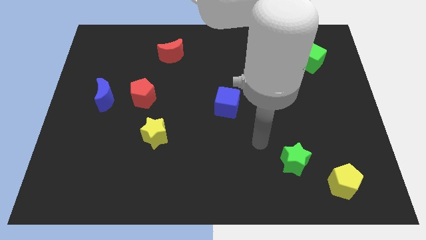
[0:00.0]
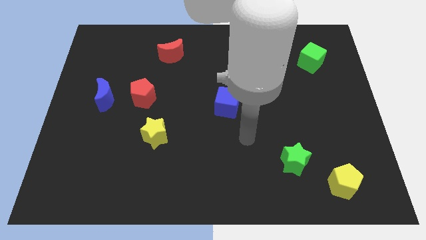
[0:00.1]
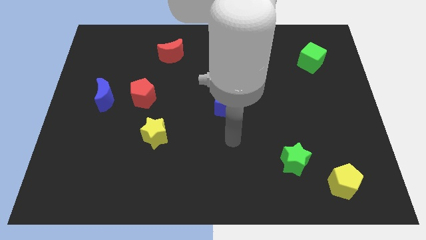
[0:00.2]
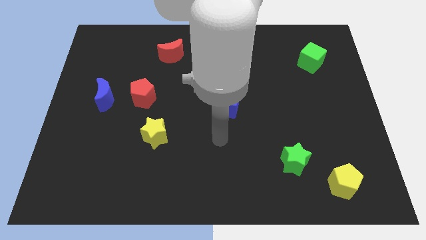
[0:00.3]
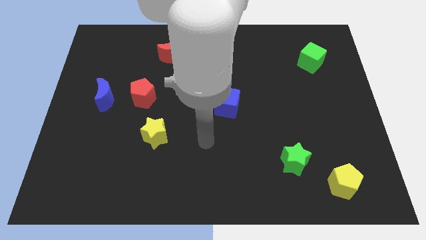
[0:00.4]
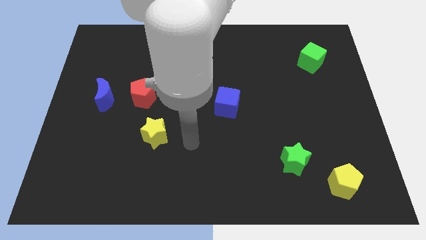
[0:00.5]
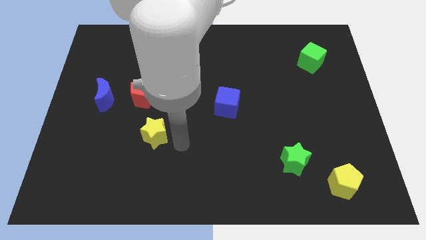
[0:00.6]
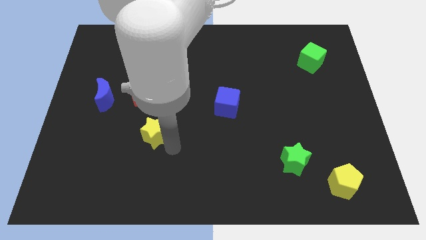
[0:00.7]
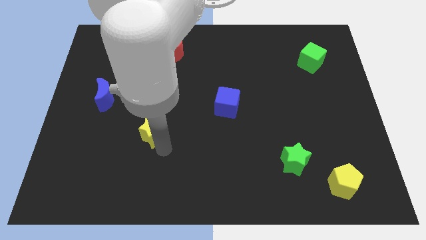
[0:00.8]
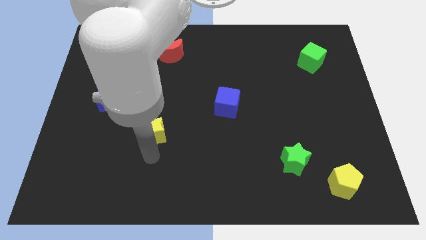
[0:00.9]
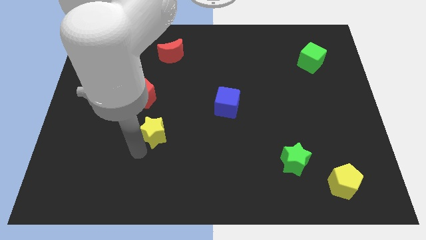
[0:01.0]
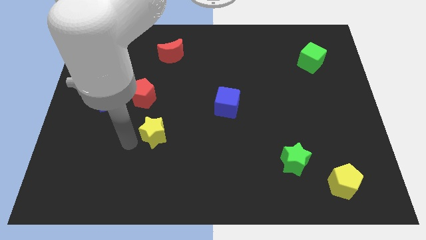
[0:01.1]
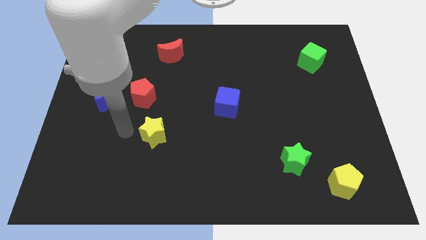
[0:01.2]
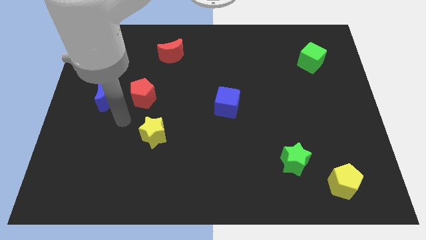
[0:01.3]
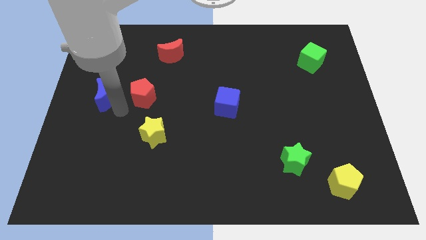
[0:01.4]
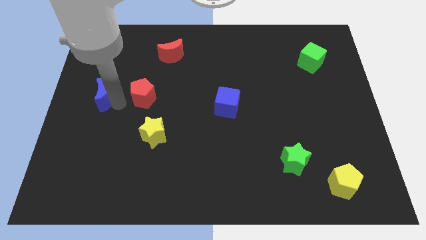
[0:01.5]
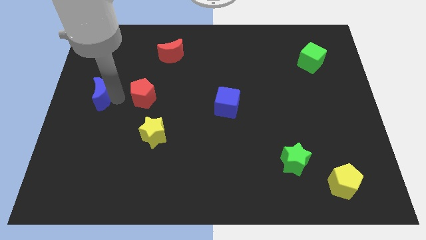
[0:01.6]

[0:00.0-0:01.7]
move the red pentagon away from the blue moon

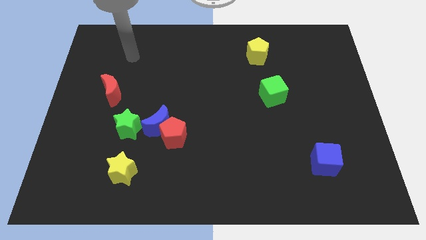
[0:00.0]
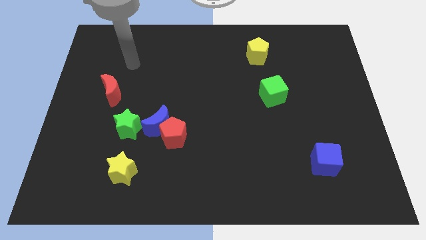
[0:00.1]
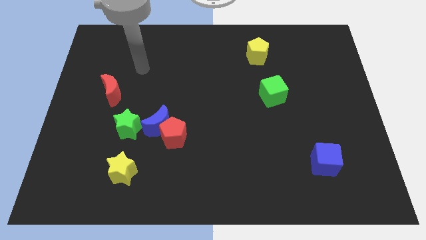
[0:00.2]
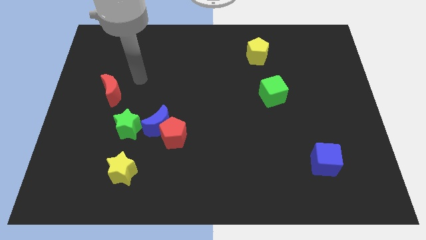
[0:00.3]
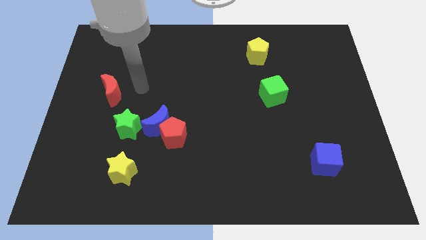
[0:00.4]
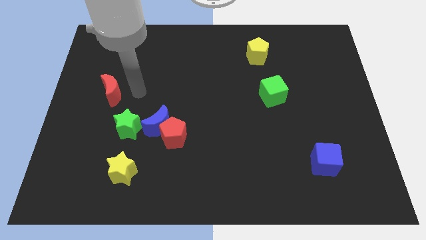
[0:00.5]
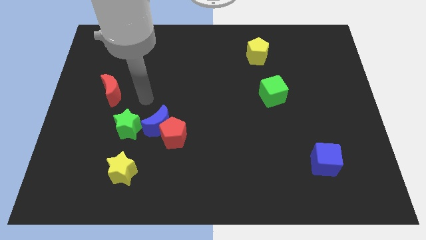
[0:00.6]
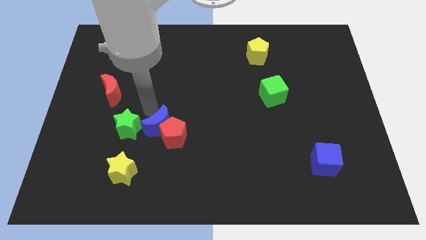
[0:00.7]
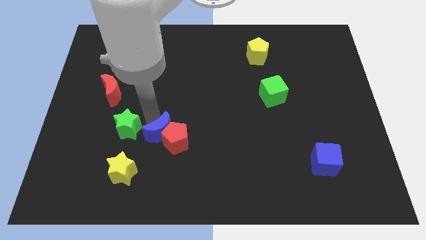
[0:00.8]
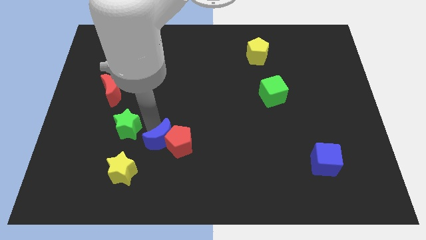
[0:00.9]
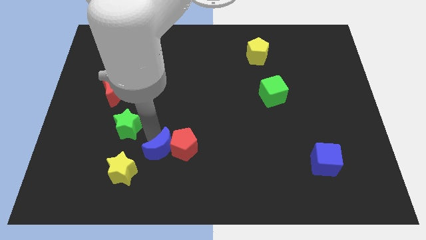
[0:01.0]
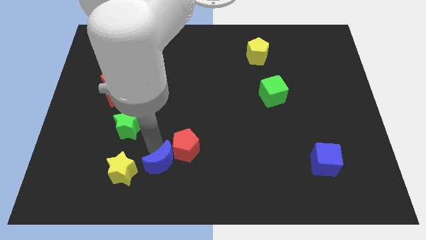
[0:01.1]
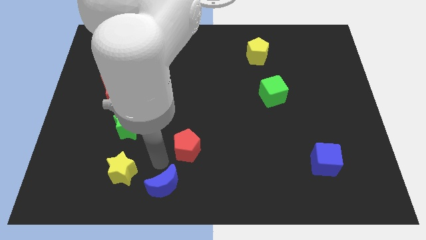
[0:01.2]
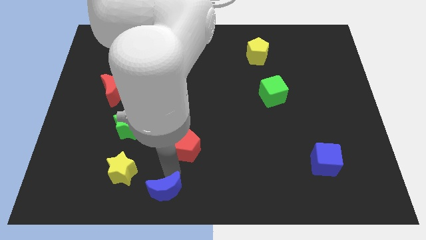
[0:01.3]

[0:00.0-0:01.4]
separate the red pentagon from the blue moon

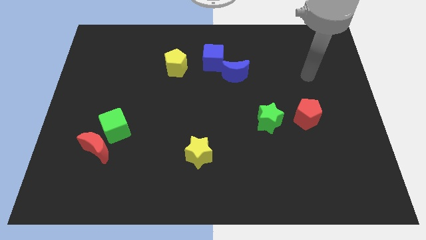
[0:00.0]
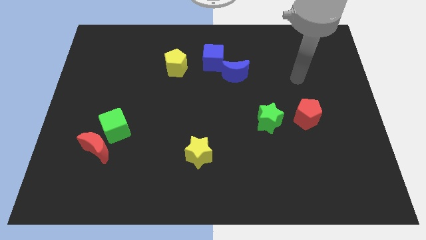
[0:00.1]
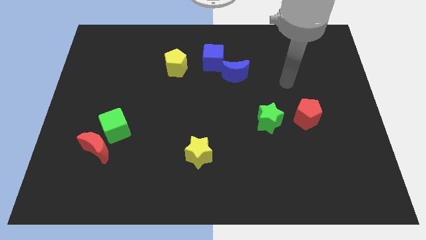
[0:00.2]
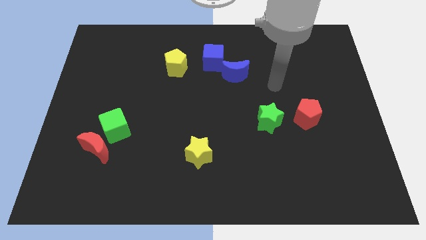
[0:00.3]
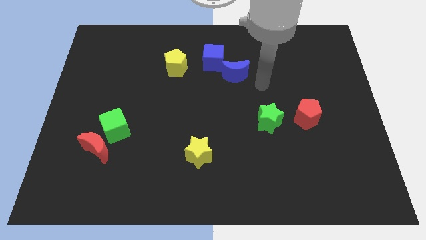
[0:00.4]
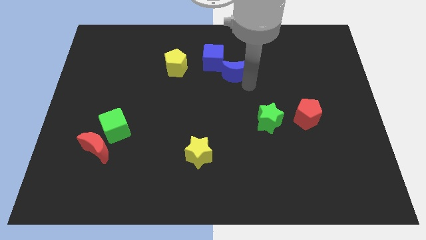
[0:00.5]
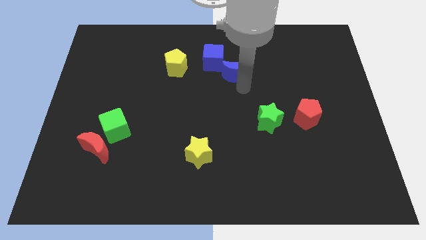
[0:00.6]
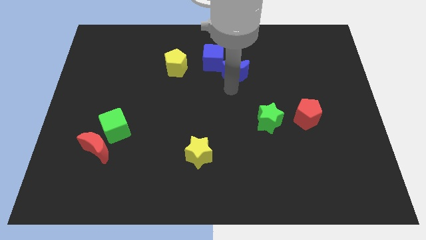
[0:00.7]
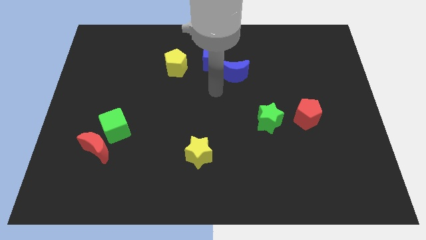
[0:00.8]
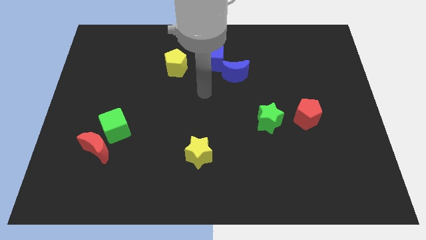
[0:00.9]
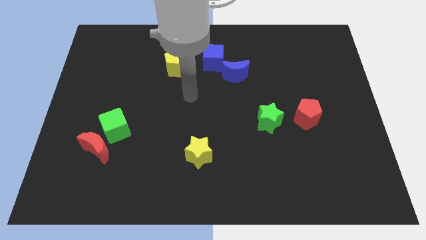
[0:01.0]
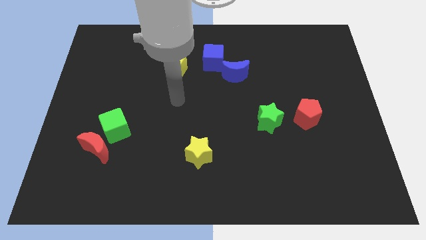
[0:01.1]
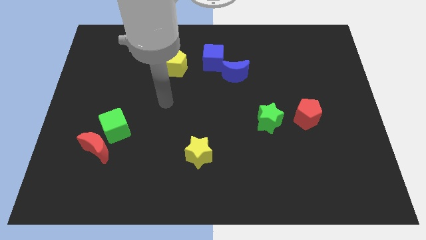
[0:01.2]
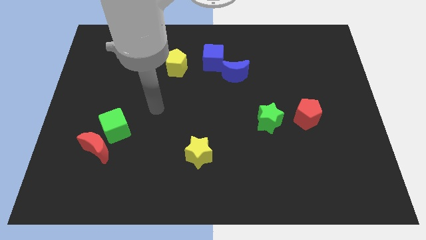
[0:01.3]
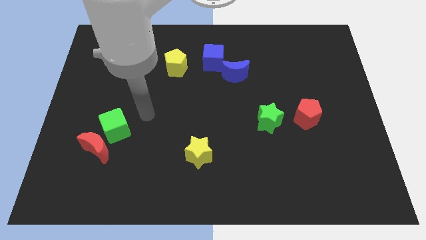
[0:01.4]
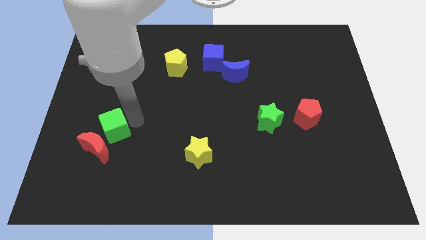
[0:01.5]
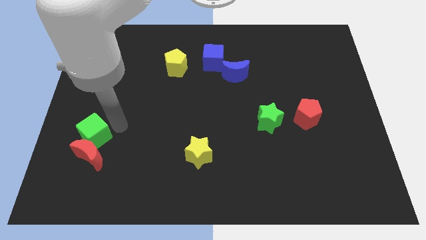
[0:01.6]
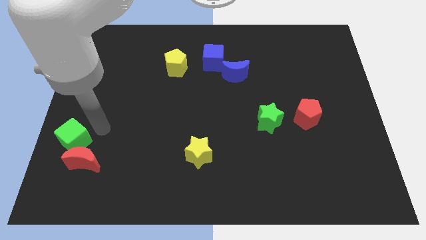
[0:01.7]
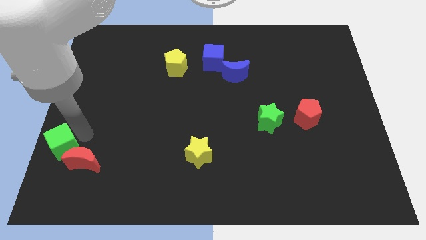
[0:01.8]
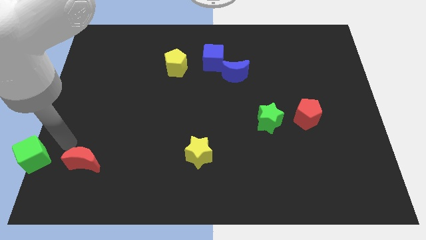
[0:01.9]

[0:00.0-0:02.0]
separate the red moon from the green cube

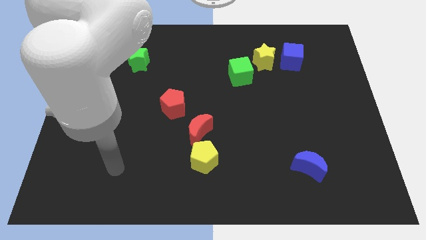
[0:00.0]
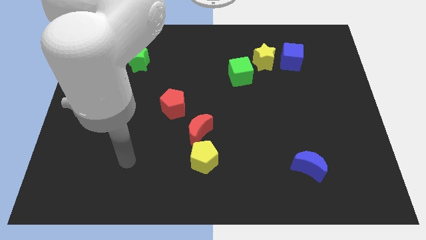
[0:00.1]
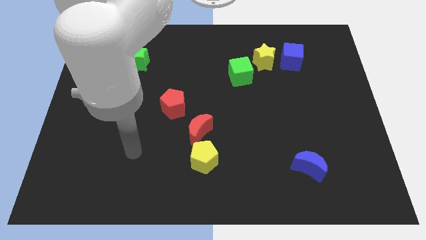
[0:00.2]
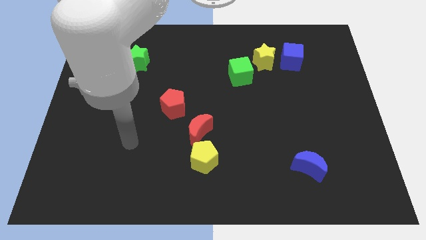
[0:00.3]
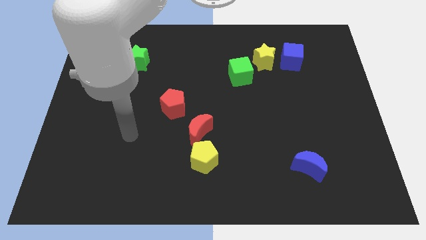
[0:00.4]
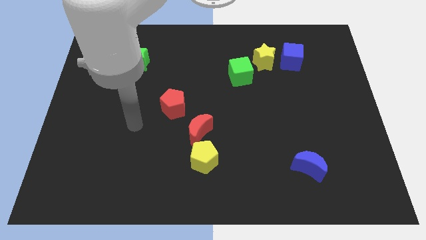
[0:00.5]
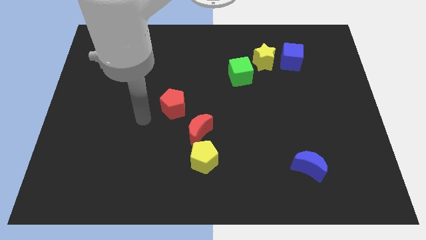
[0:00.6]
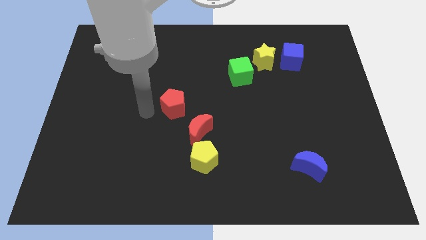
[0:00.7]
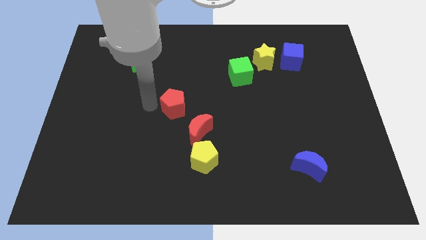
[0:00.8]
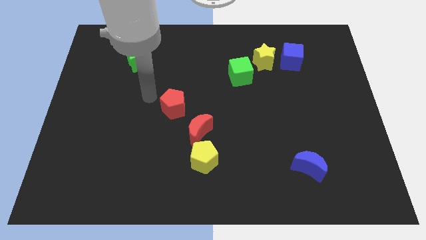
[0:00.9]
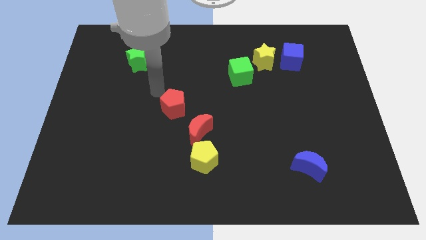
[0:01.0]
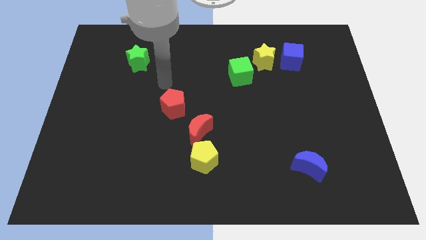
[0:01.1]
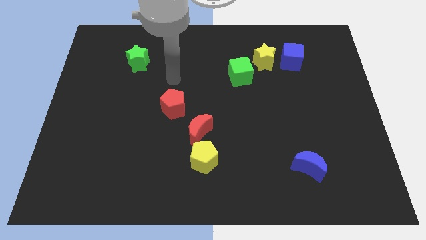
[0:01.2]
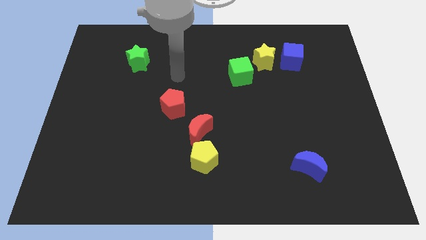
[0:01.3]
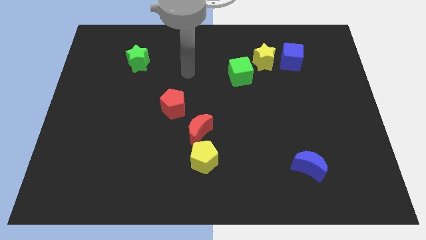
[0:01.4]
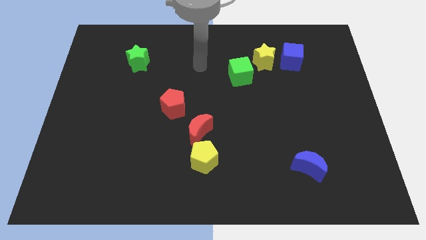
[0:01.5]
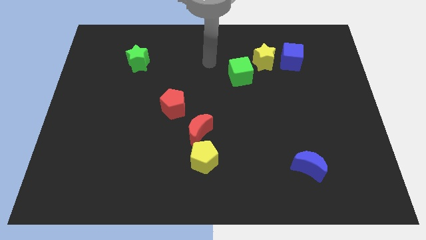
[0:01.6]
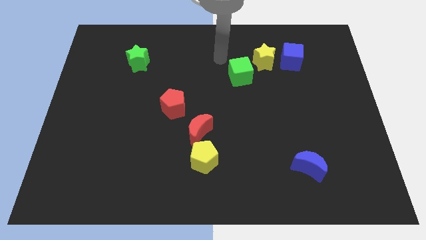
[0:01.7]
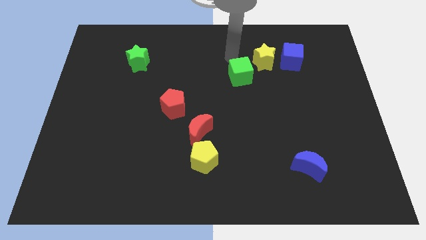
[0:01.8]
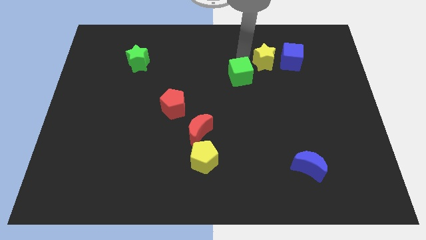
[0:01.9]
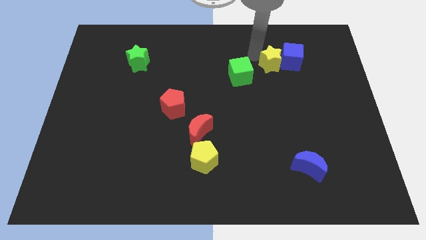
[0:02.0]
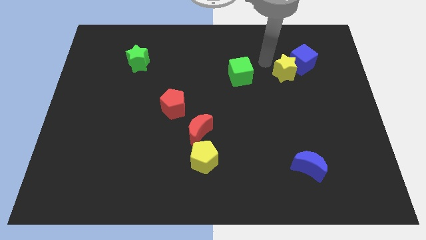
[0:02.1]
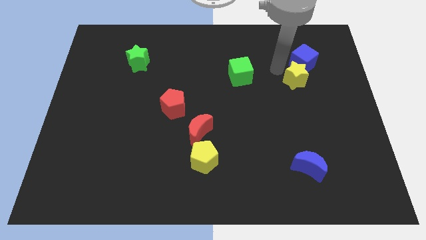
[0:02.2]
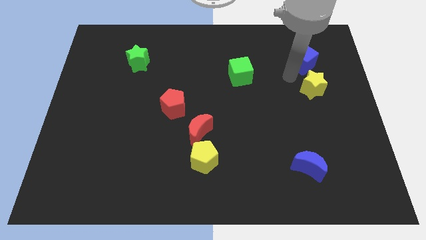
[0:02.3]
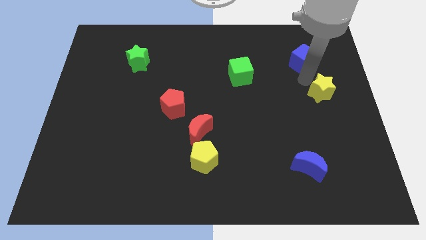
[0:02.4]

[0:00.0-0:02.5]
pull the blue cube apart from the yellow star

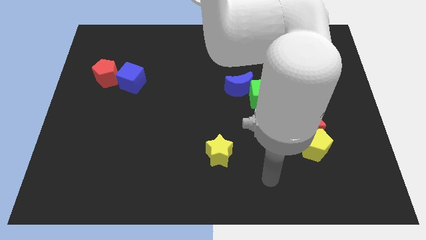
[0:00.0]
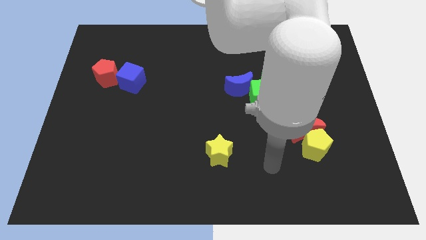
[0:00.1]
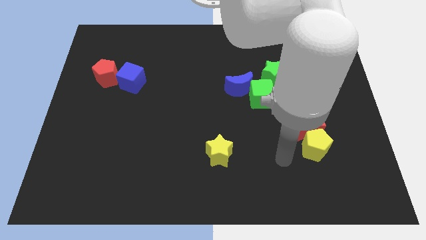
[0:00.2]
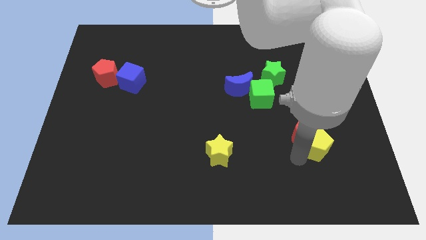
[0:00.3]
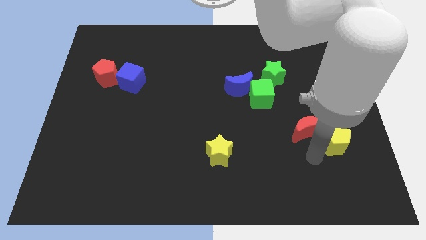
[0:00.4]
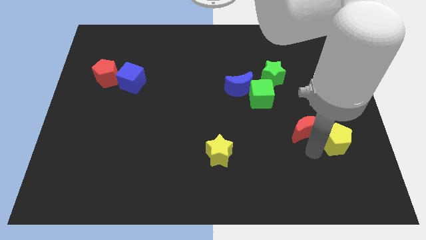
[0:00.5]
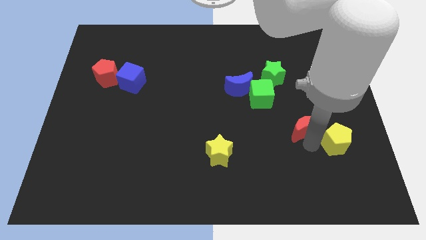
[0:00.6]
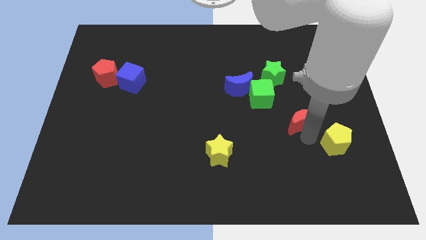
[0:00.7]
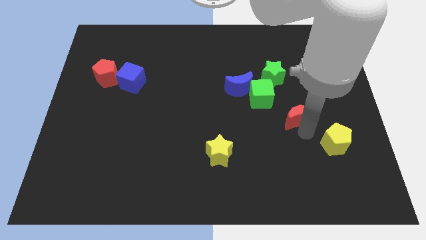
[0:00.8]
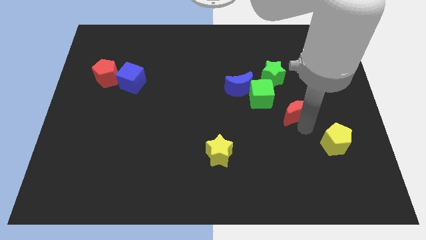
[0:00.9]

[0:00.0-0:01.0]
pull the red moon apart from the yellow pentagon

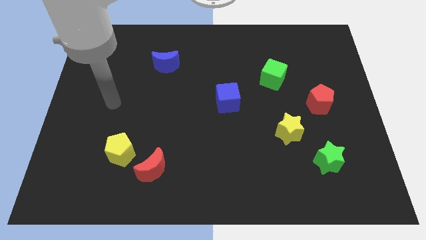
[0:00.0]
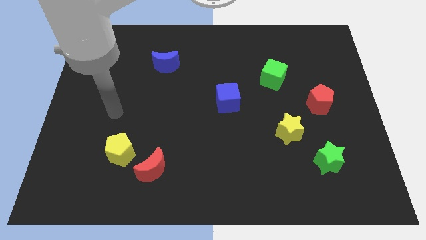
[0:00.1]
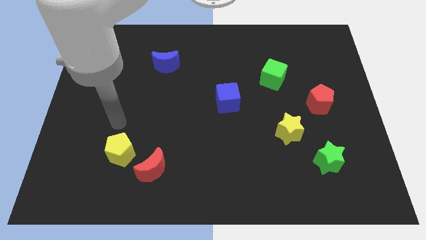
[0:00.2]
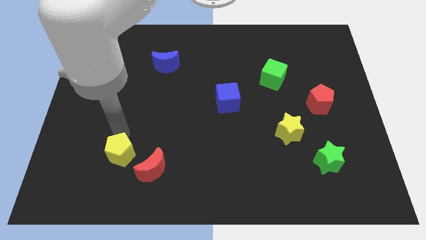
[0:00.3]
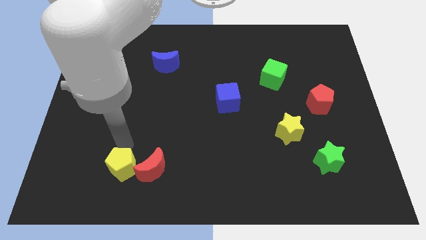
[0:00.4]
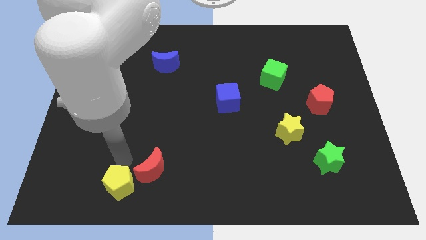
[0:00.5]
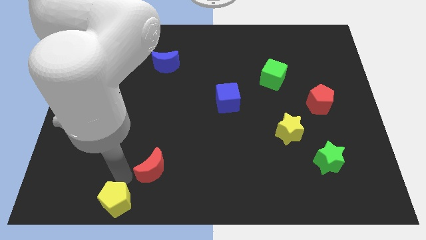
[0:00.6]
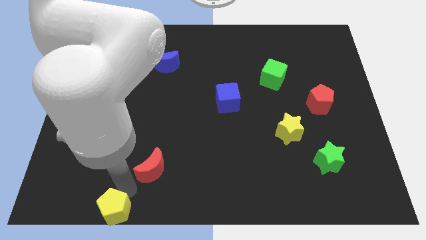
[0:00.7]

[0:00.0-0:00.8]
separate the red moon from the yellow pentagon
